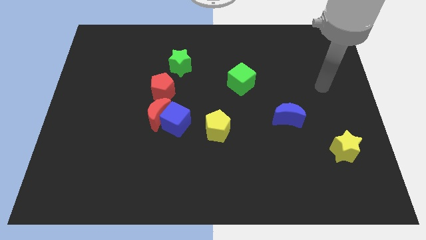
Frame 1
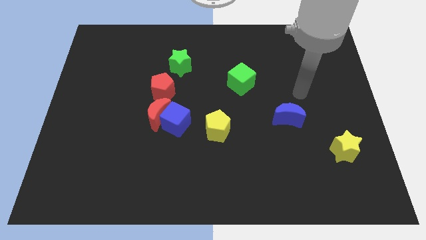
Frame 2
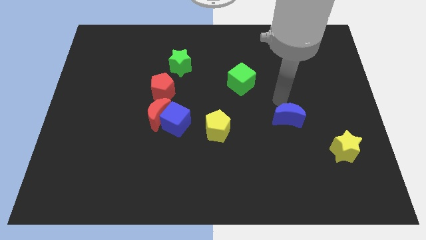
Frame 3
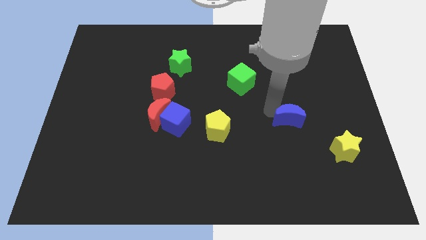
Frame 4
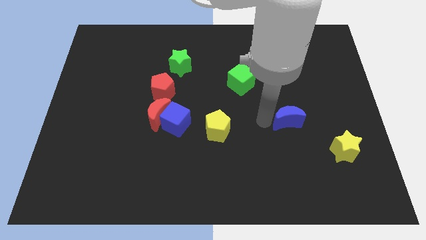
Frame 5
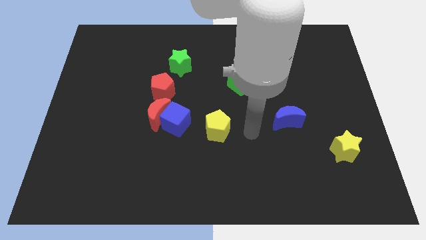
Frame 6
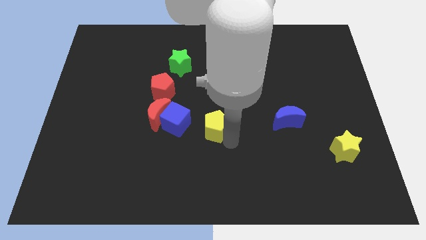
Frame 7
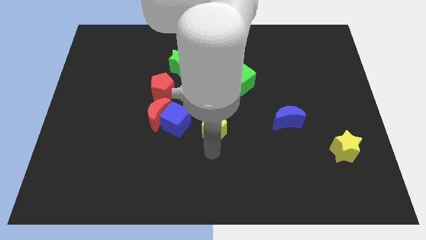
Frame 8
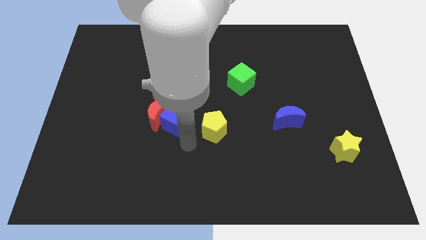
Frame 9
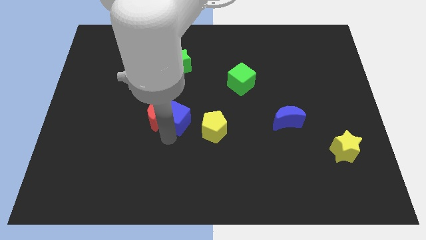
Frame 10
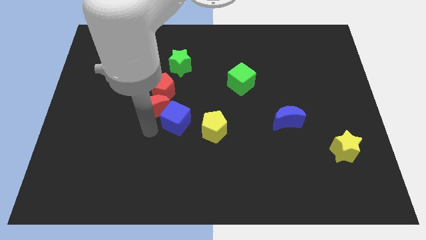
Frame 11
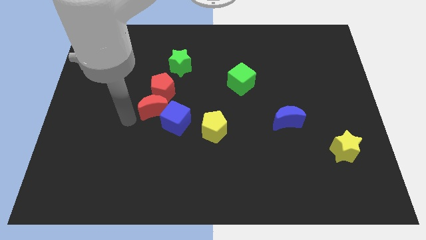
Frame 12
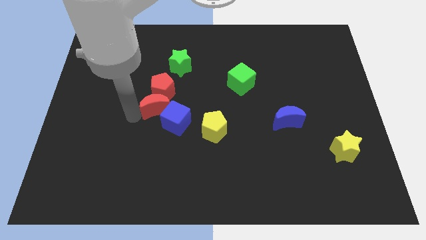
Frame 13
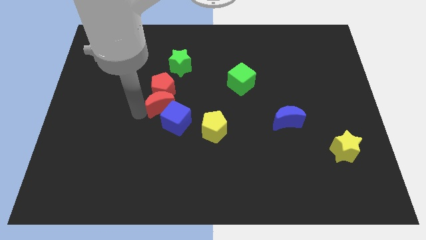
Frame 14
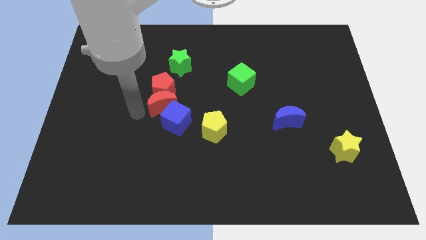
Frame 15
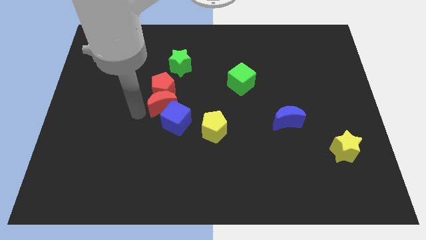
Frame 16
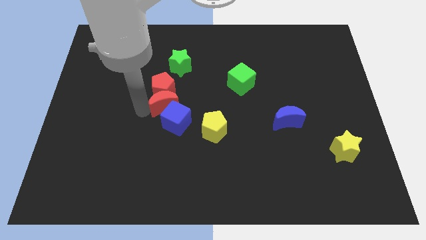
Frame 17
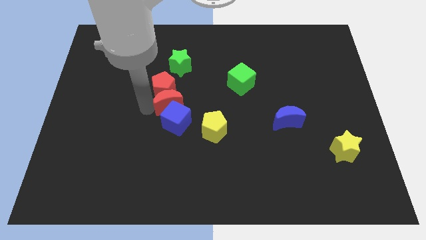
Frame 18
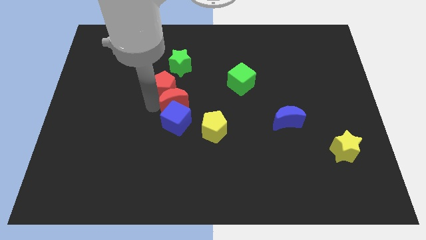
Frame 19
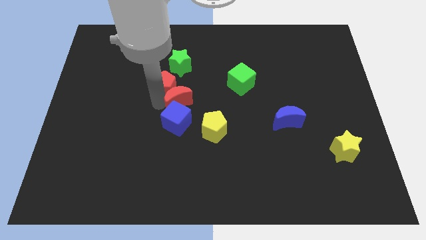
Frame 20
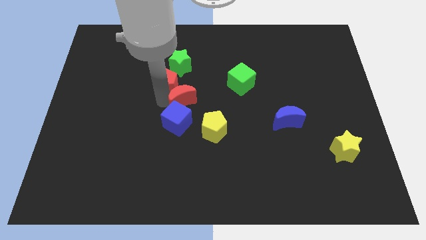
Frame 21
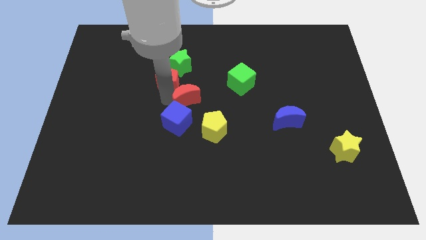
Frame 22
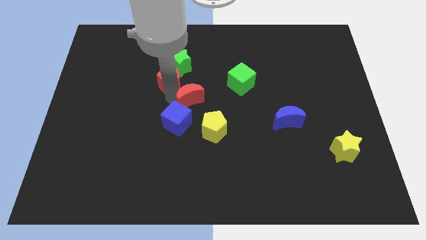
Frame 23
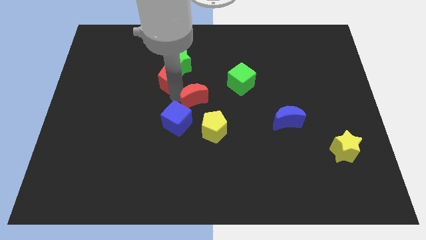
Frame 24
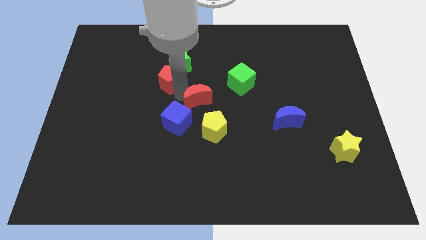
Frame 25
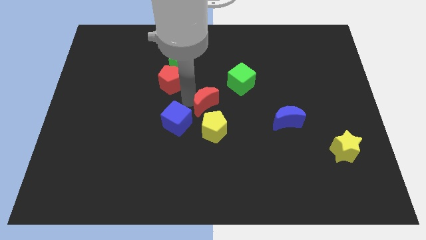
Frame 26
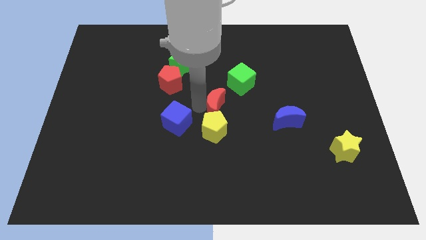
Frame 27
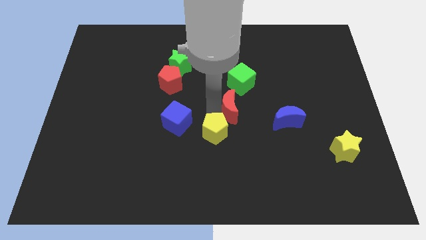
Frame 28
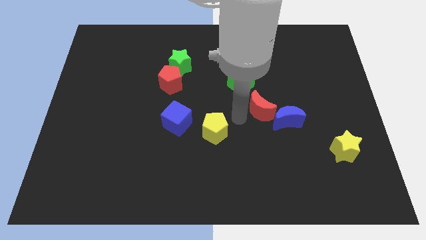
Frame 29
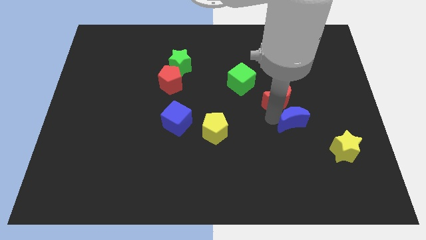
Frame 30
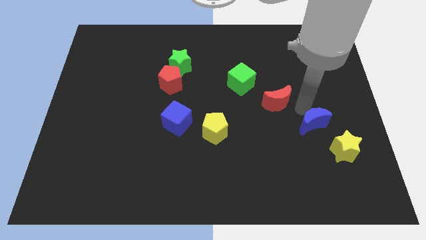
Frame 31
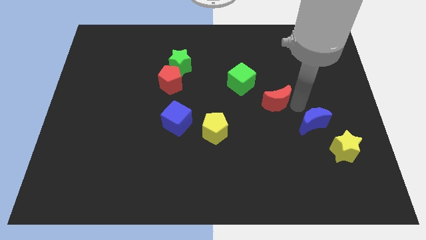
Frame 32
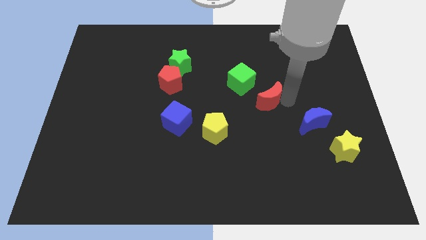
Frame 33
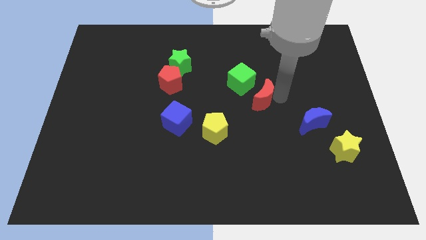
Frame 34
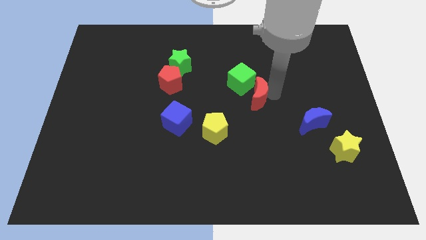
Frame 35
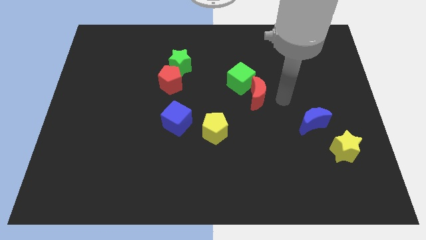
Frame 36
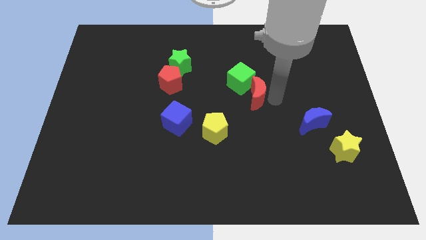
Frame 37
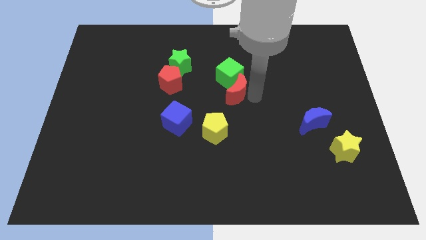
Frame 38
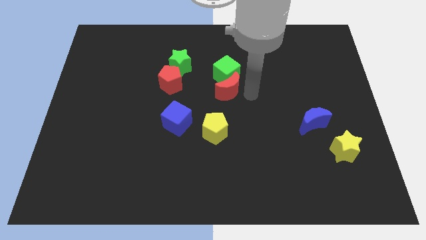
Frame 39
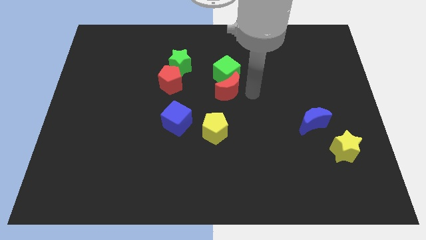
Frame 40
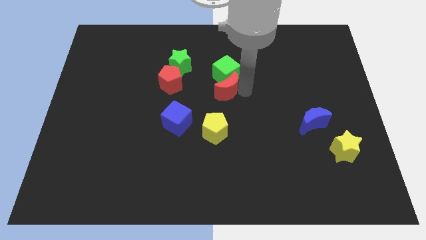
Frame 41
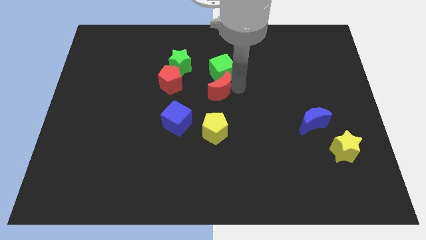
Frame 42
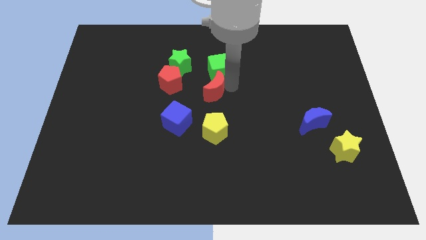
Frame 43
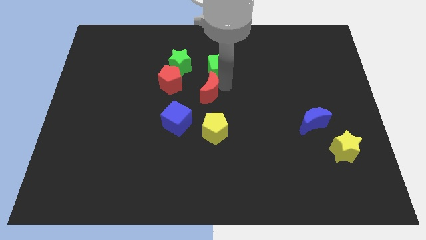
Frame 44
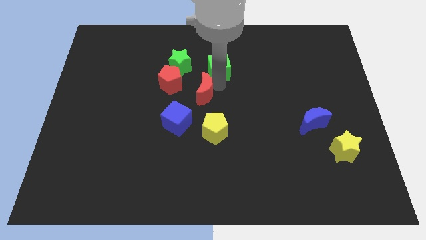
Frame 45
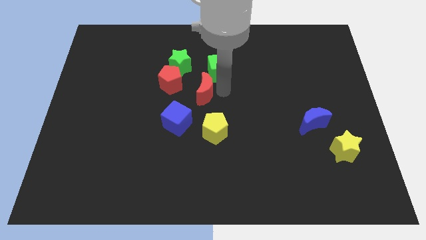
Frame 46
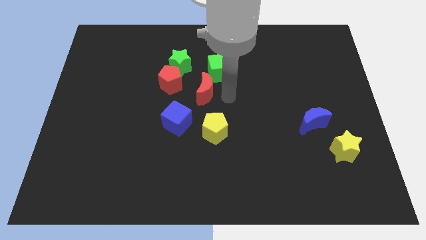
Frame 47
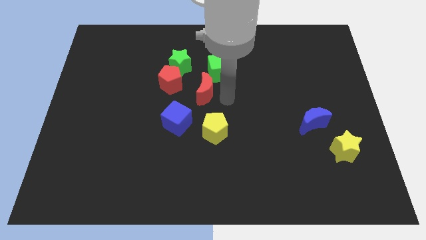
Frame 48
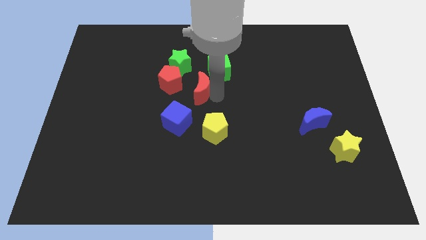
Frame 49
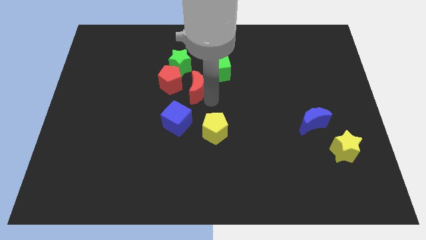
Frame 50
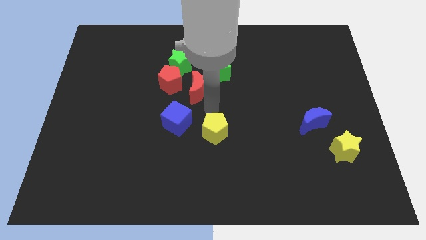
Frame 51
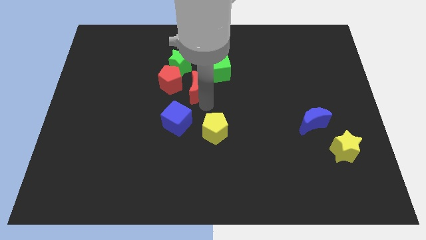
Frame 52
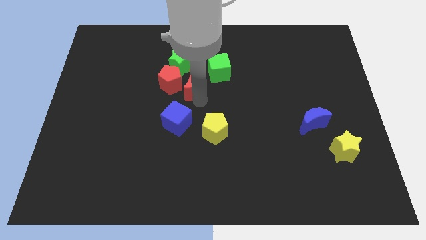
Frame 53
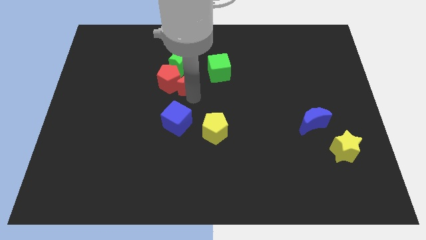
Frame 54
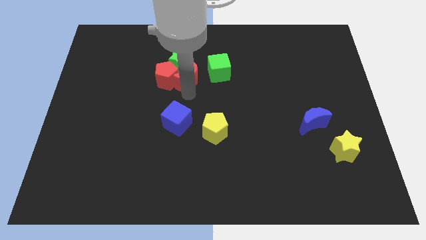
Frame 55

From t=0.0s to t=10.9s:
slide the red moon towards the green star

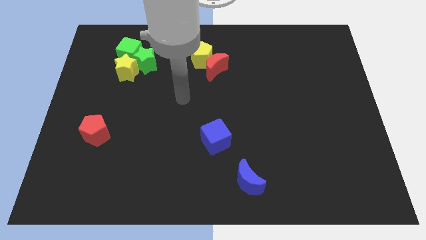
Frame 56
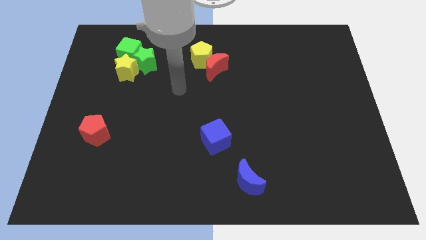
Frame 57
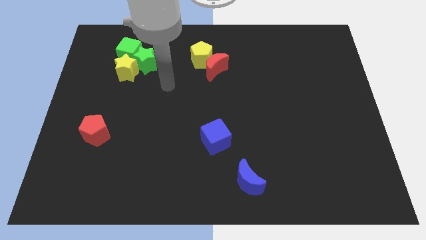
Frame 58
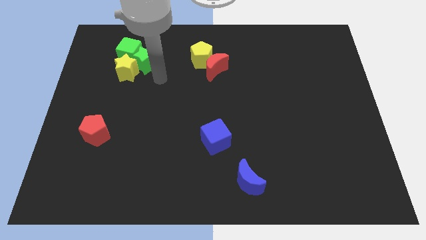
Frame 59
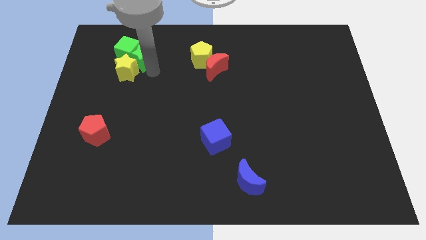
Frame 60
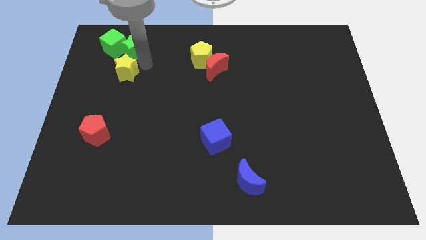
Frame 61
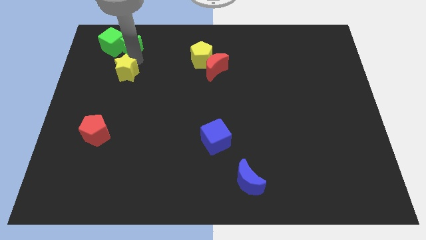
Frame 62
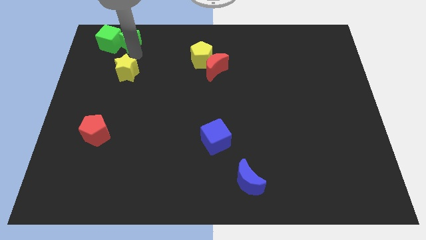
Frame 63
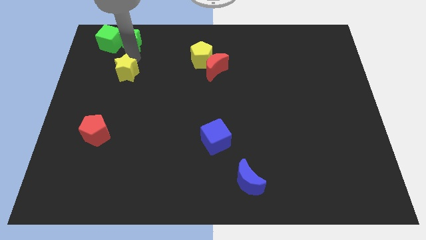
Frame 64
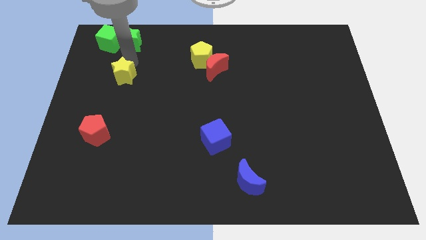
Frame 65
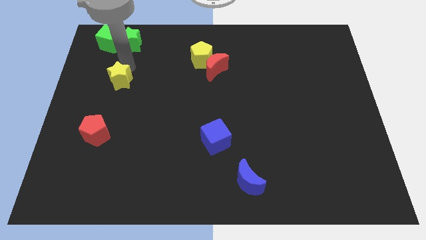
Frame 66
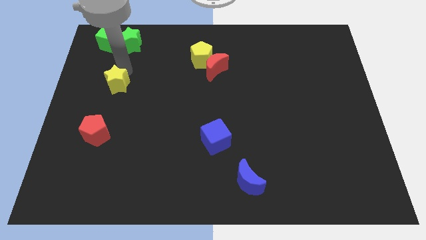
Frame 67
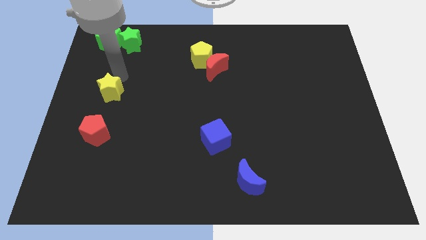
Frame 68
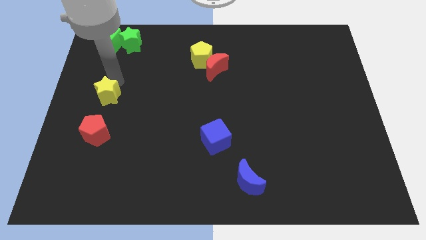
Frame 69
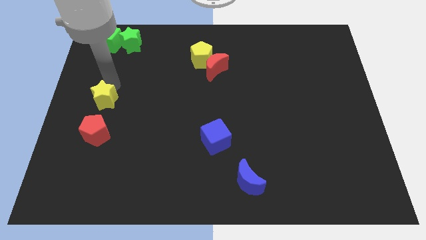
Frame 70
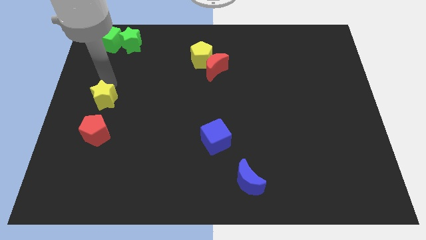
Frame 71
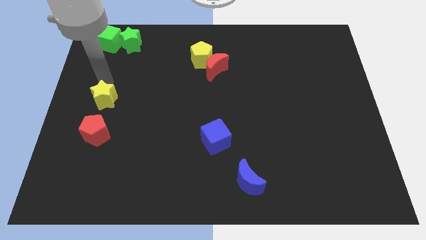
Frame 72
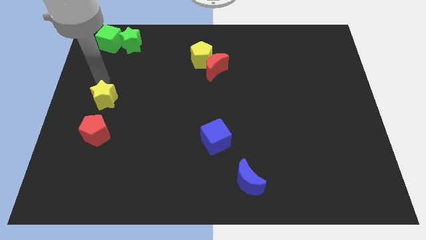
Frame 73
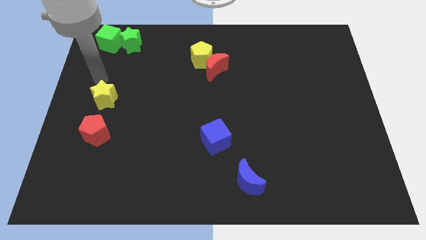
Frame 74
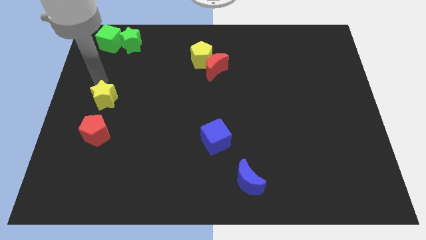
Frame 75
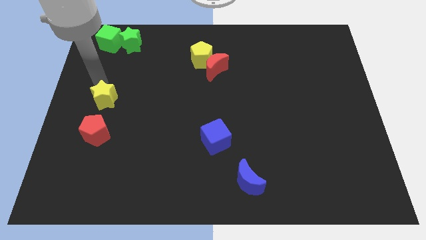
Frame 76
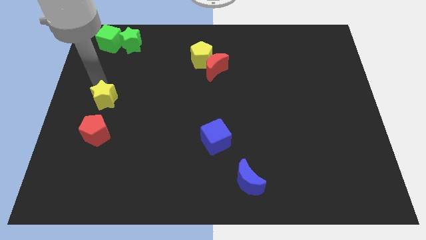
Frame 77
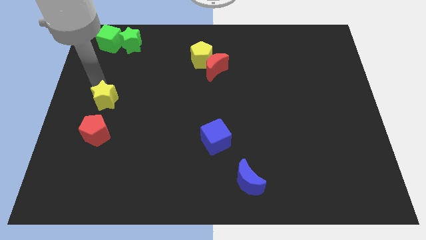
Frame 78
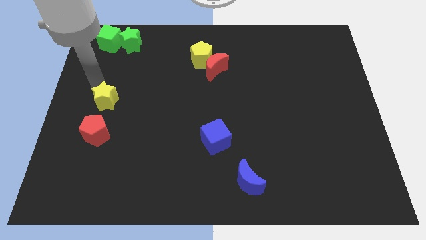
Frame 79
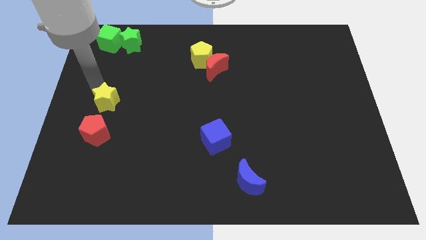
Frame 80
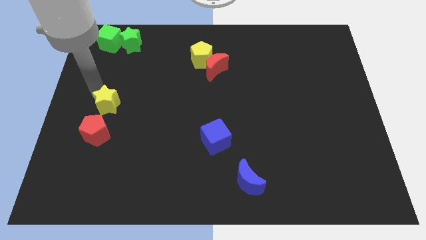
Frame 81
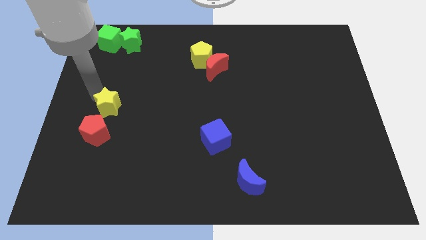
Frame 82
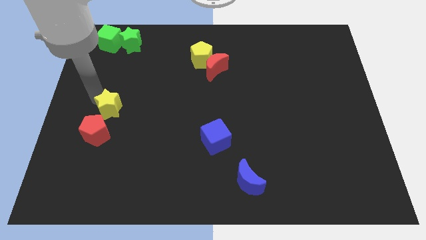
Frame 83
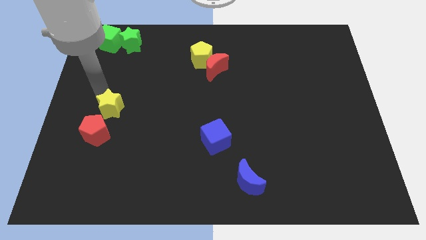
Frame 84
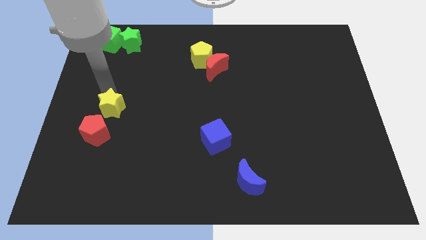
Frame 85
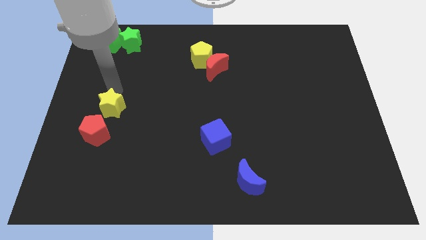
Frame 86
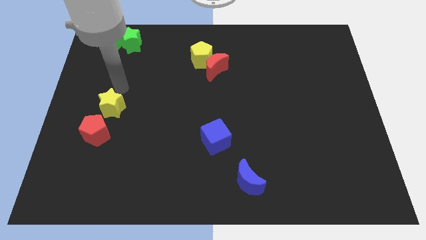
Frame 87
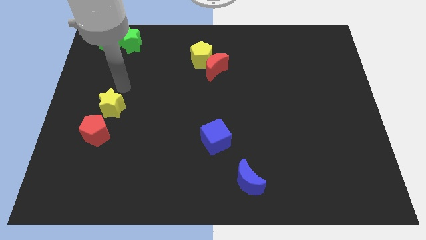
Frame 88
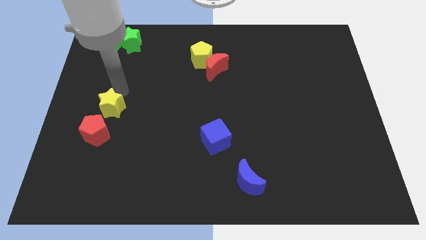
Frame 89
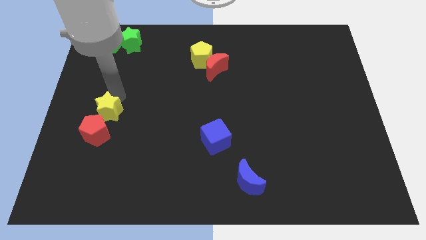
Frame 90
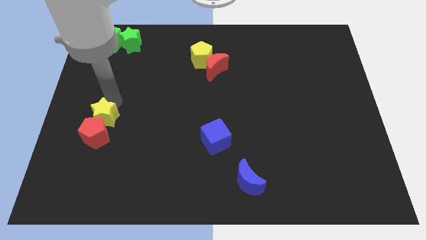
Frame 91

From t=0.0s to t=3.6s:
push the yellow star towards the red pentagon
